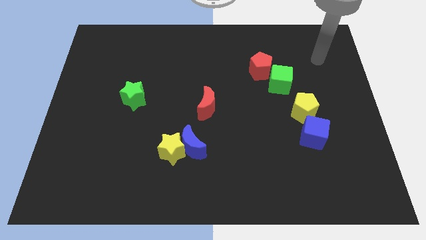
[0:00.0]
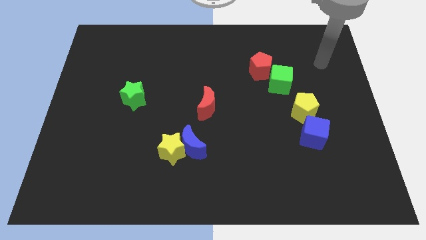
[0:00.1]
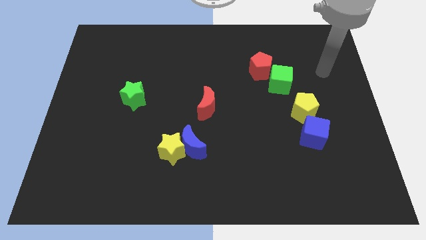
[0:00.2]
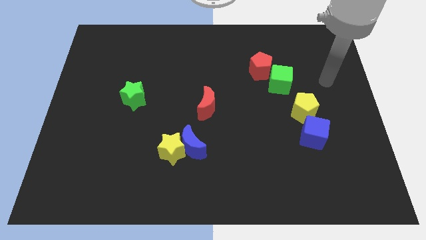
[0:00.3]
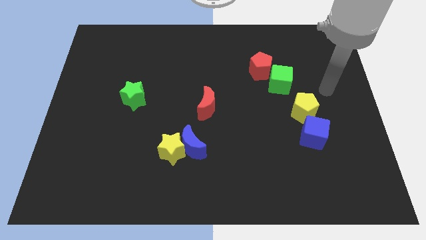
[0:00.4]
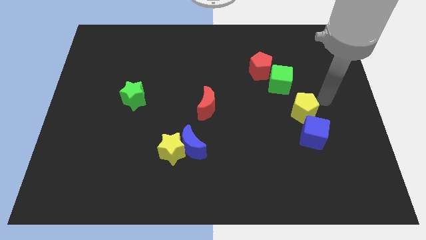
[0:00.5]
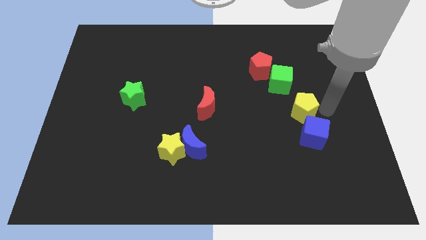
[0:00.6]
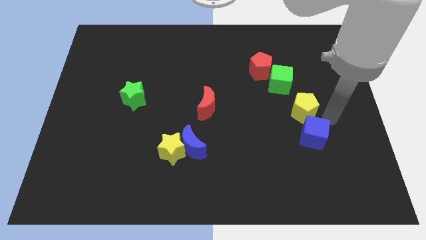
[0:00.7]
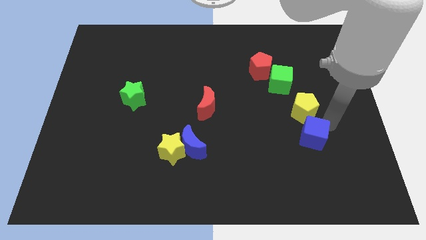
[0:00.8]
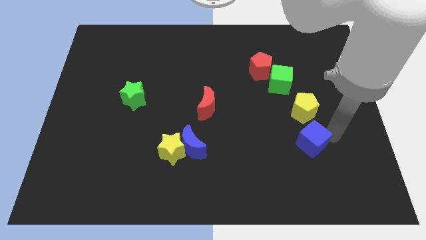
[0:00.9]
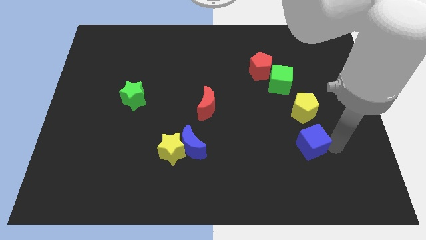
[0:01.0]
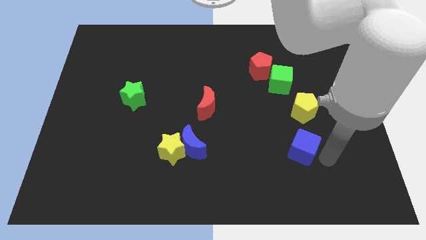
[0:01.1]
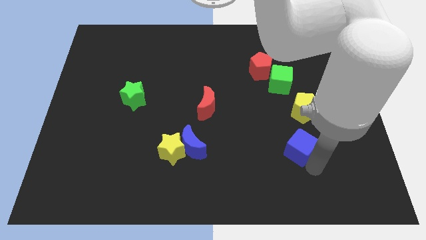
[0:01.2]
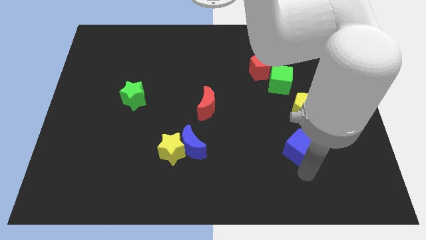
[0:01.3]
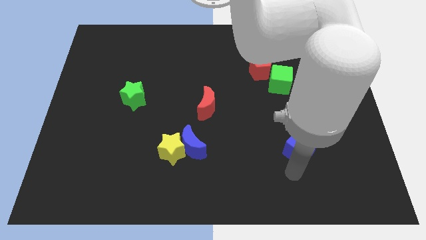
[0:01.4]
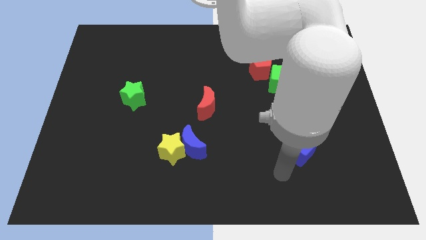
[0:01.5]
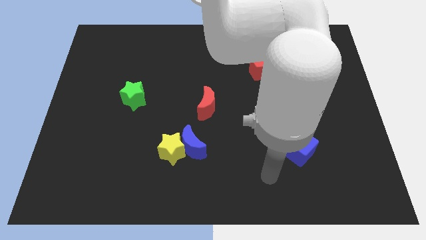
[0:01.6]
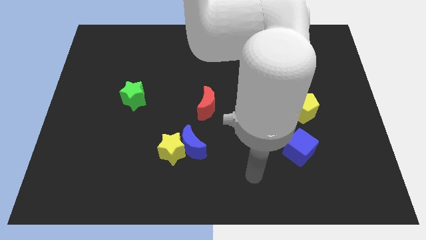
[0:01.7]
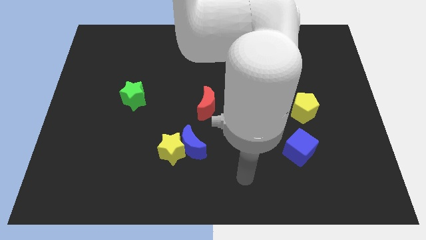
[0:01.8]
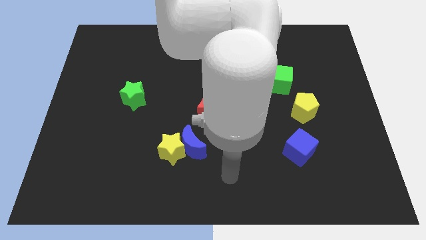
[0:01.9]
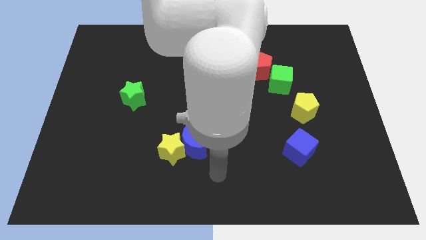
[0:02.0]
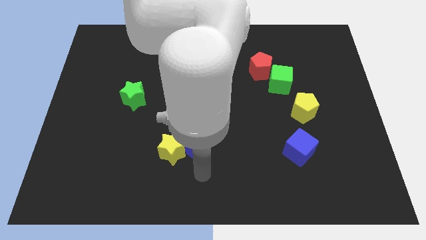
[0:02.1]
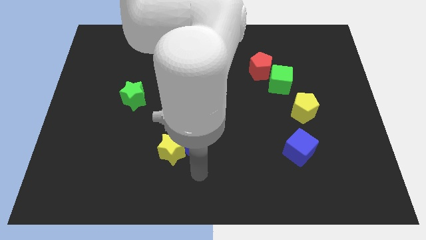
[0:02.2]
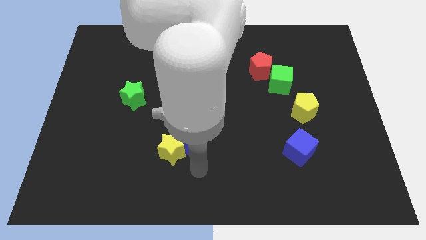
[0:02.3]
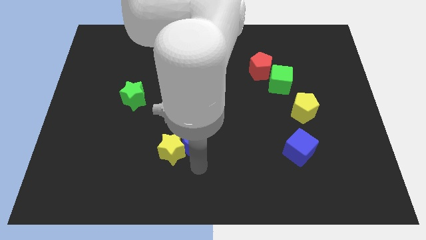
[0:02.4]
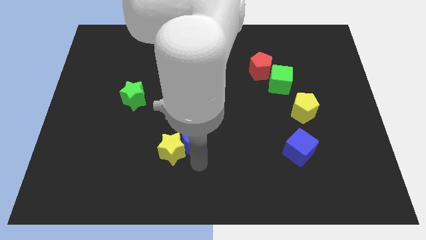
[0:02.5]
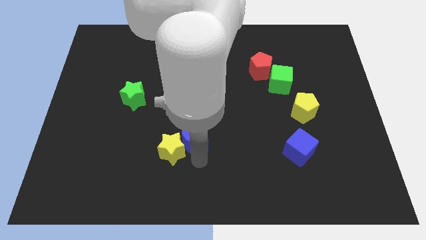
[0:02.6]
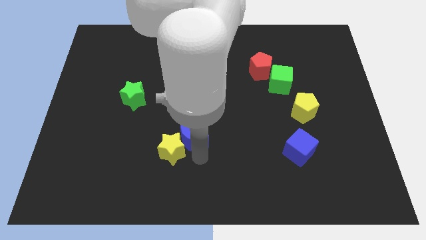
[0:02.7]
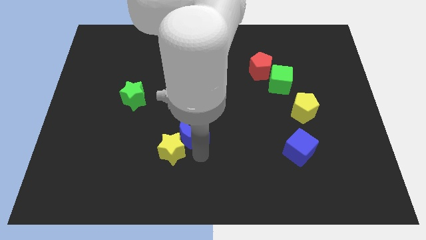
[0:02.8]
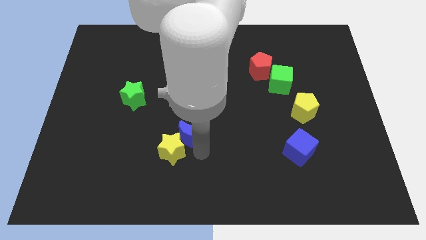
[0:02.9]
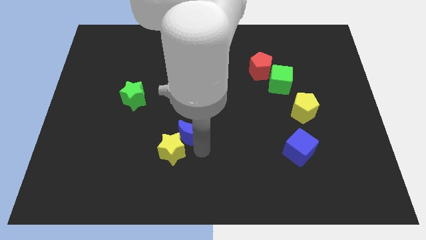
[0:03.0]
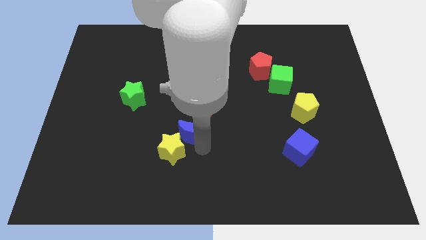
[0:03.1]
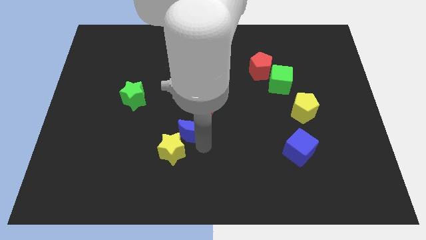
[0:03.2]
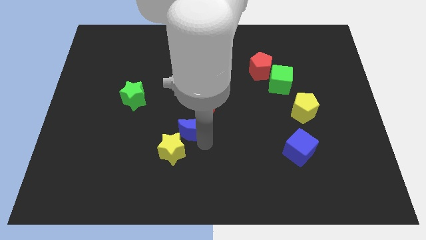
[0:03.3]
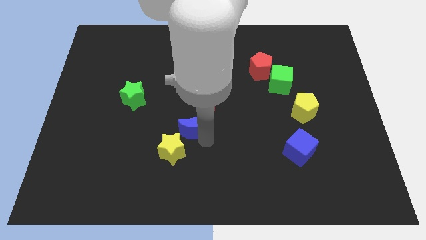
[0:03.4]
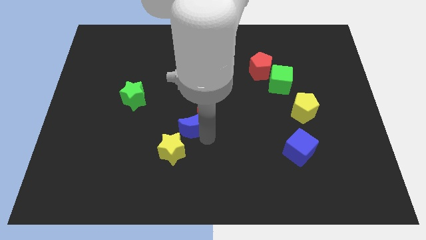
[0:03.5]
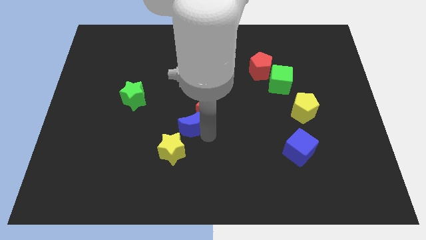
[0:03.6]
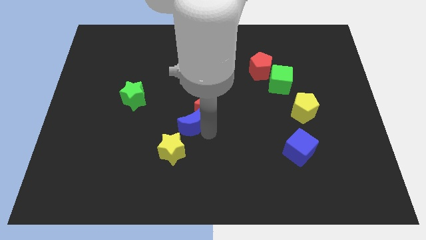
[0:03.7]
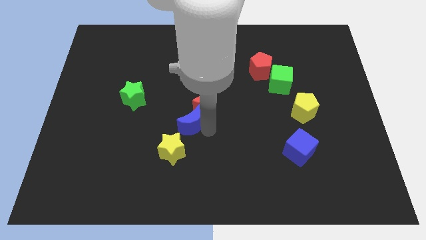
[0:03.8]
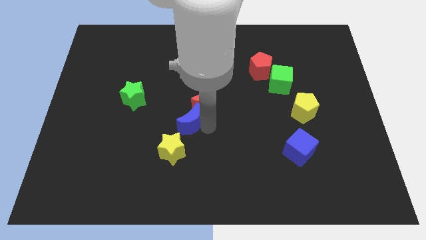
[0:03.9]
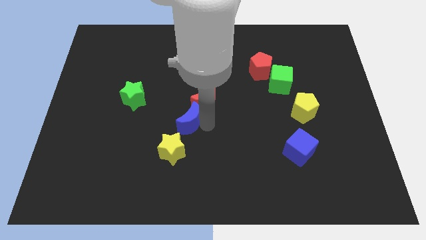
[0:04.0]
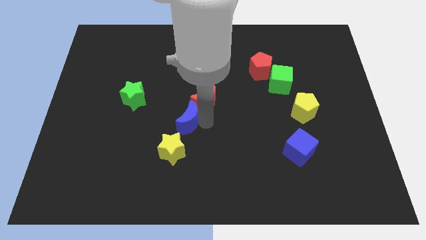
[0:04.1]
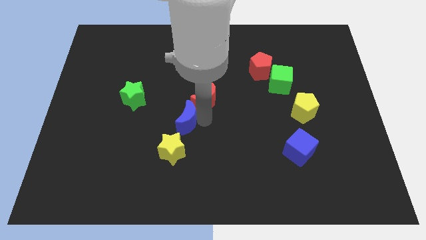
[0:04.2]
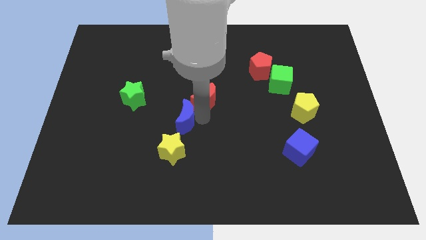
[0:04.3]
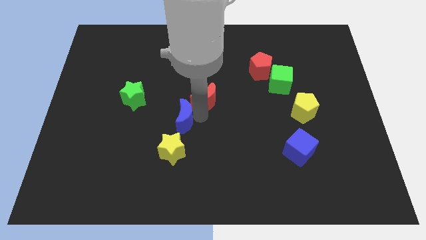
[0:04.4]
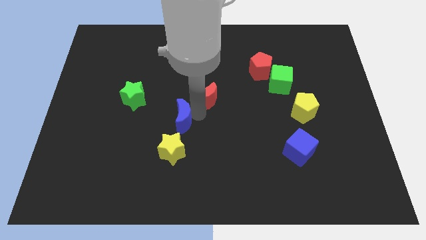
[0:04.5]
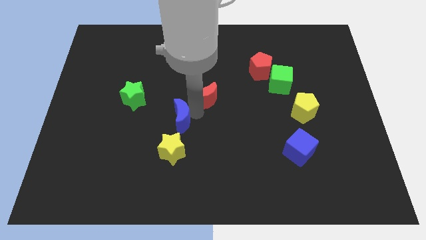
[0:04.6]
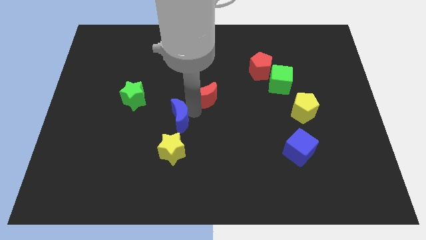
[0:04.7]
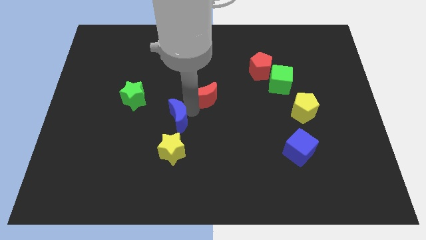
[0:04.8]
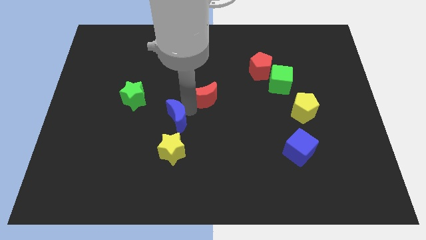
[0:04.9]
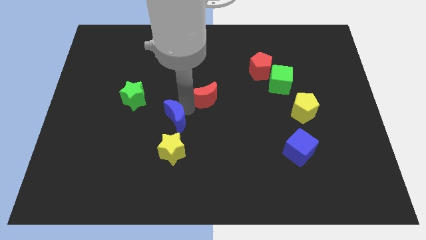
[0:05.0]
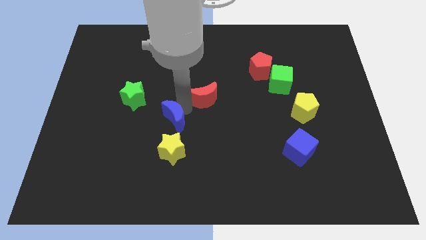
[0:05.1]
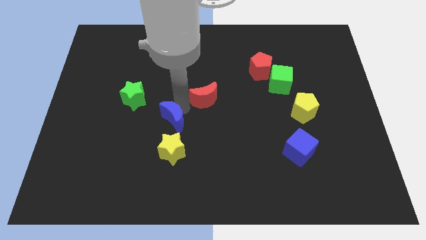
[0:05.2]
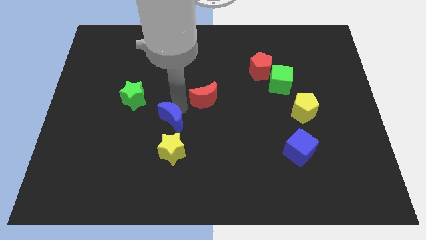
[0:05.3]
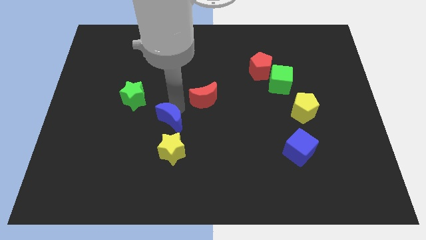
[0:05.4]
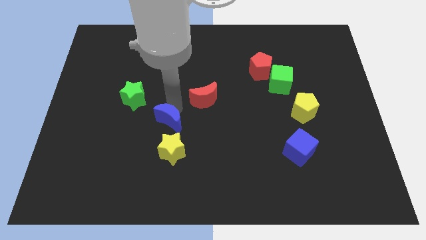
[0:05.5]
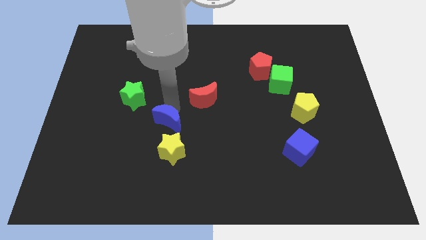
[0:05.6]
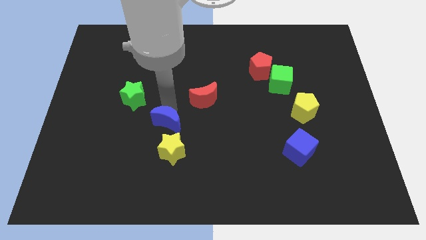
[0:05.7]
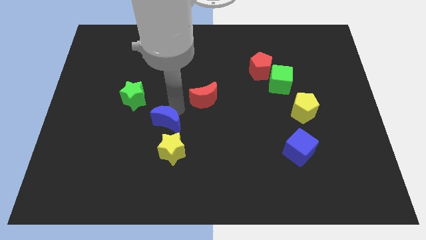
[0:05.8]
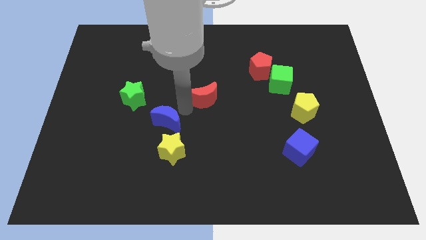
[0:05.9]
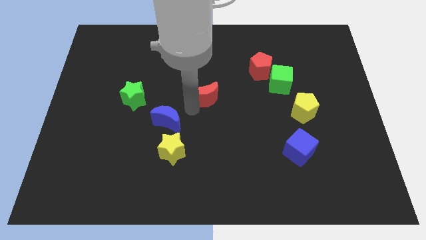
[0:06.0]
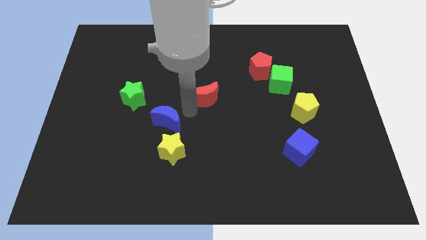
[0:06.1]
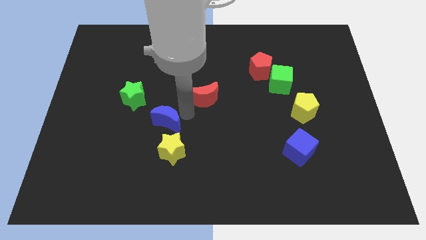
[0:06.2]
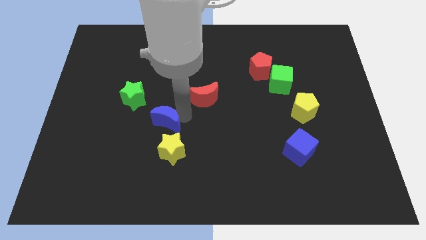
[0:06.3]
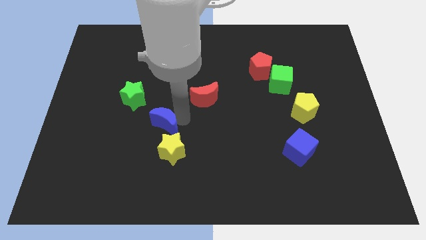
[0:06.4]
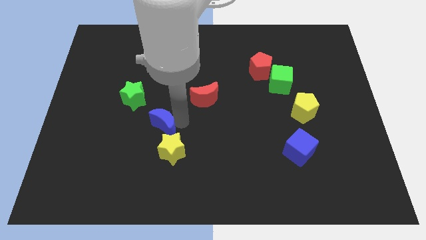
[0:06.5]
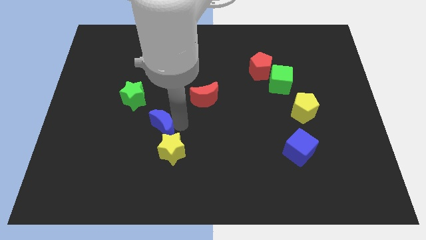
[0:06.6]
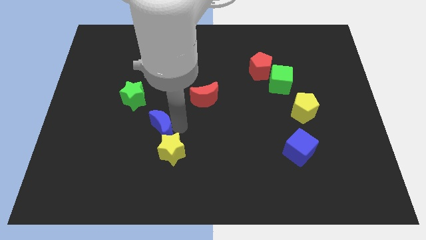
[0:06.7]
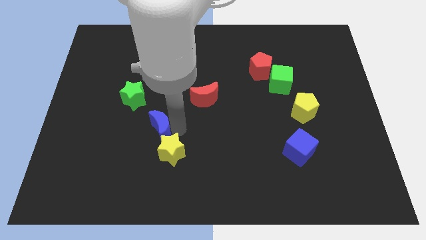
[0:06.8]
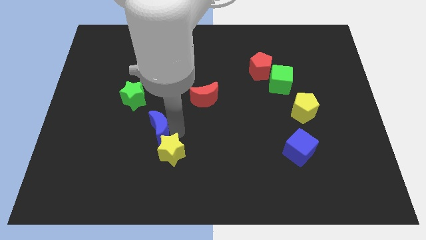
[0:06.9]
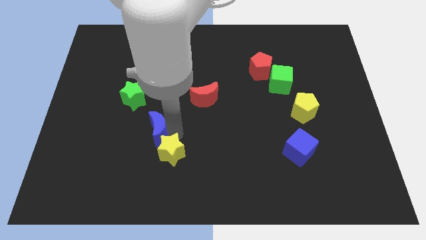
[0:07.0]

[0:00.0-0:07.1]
slightly slide the blue moon left

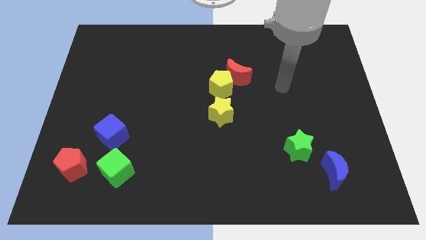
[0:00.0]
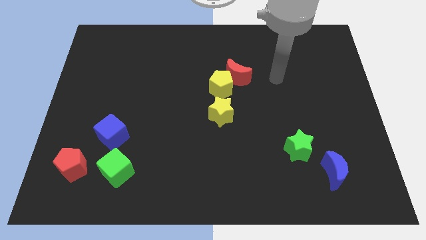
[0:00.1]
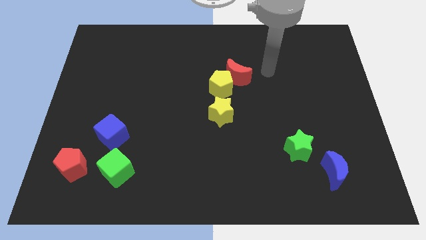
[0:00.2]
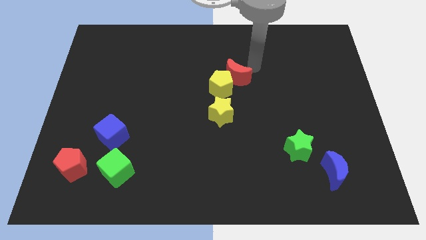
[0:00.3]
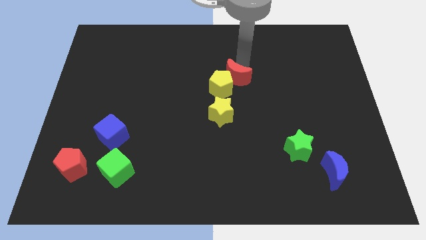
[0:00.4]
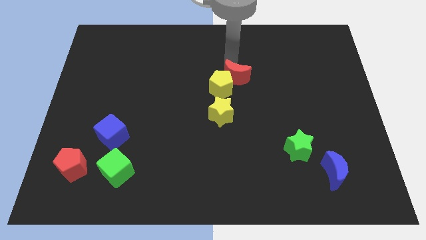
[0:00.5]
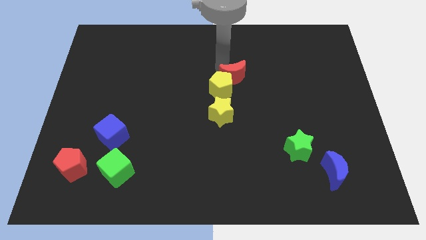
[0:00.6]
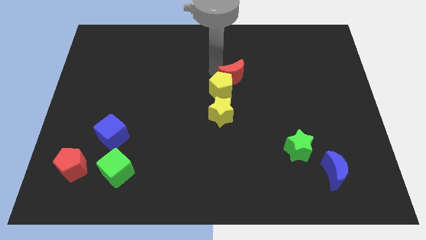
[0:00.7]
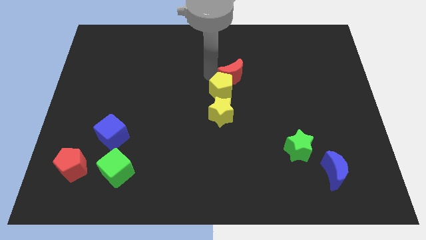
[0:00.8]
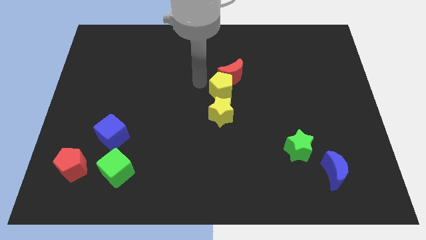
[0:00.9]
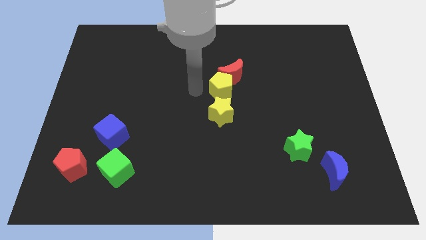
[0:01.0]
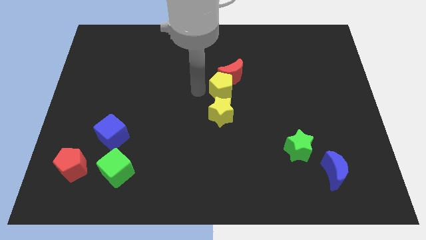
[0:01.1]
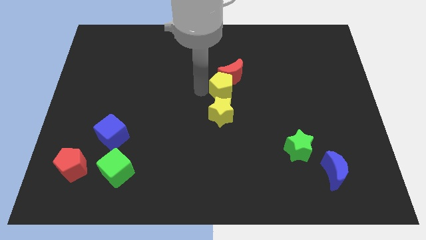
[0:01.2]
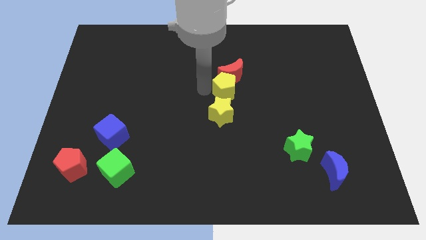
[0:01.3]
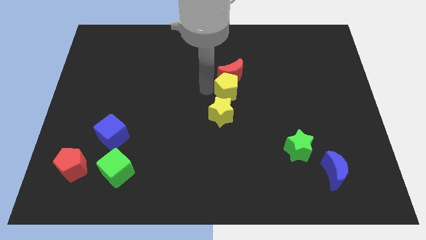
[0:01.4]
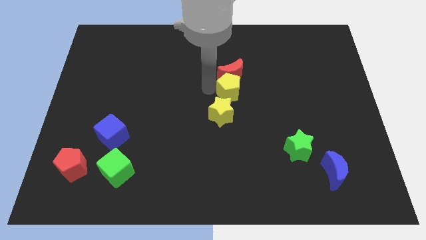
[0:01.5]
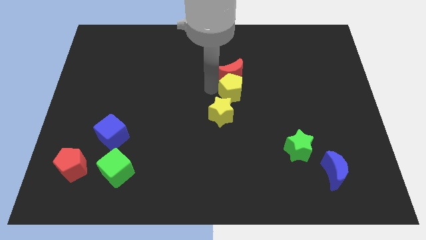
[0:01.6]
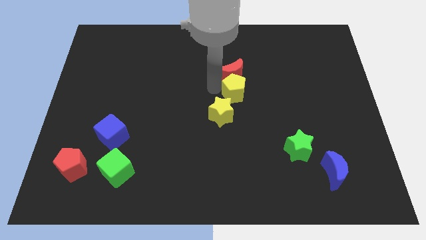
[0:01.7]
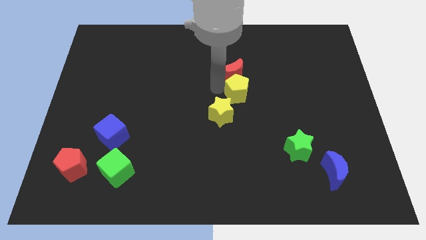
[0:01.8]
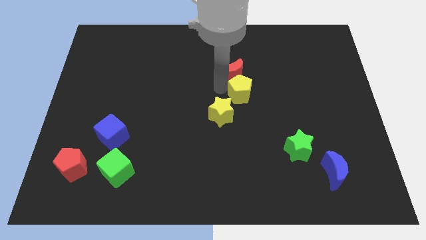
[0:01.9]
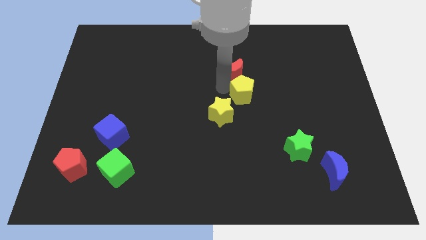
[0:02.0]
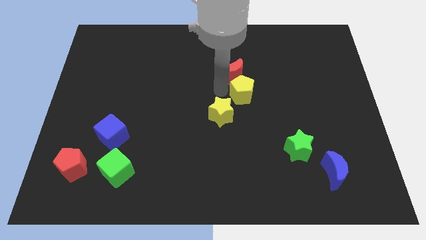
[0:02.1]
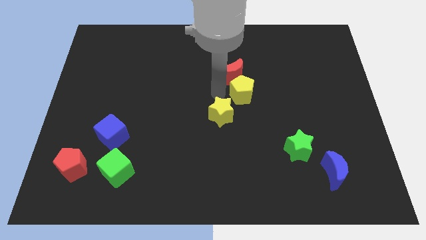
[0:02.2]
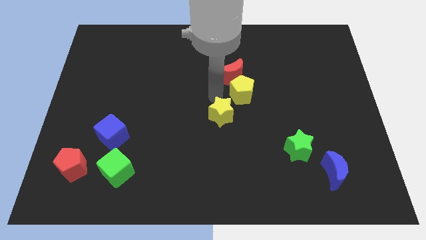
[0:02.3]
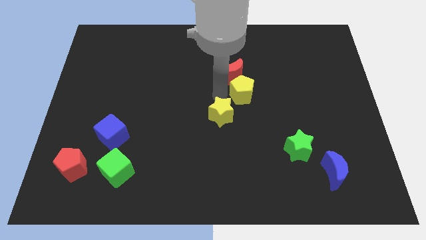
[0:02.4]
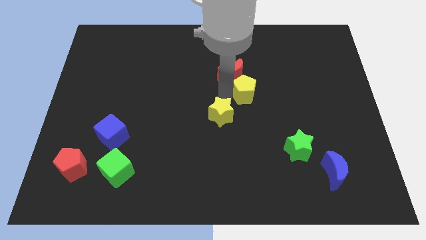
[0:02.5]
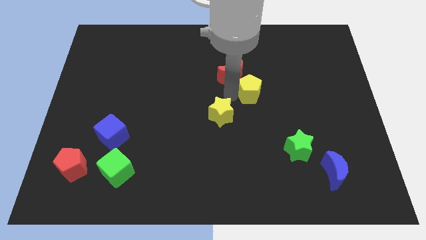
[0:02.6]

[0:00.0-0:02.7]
slightly slide the yellow pentagon right
